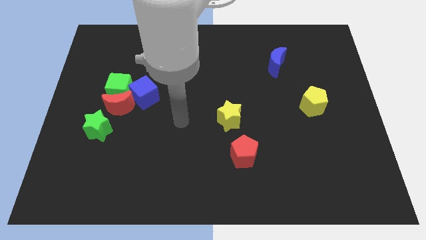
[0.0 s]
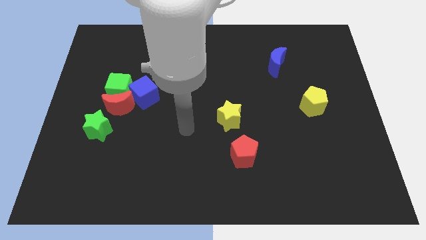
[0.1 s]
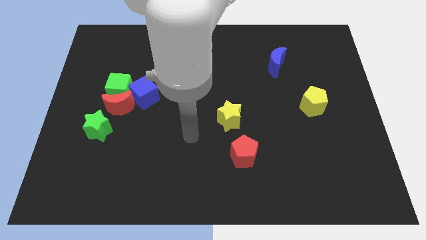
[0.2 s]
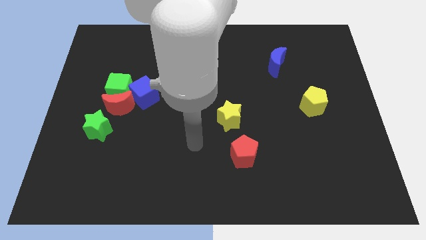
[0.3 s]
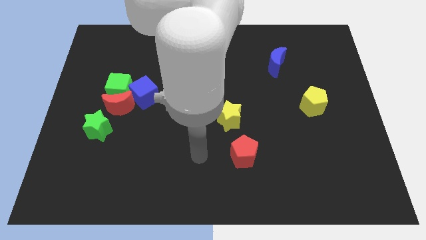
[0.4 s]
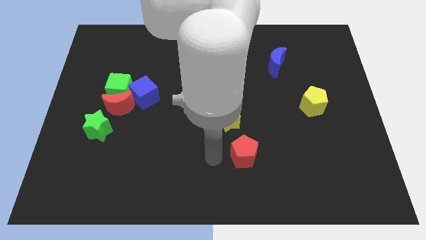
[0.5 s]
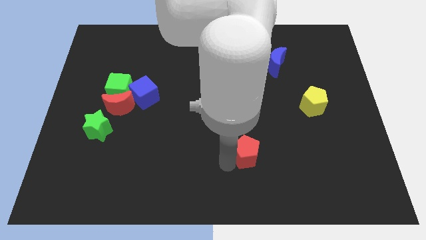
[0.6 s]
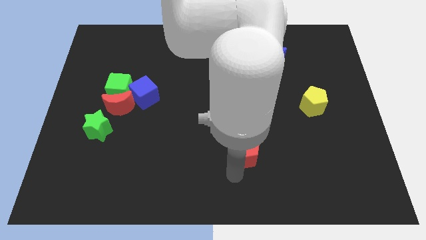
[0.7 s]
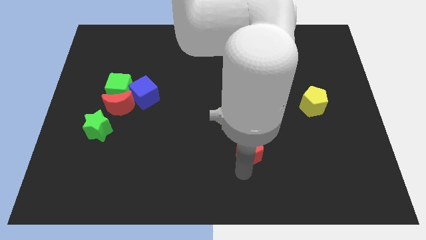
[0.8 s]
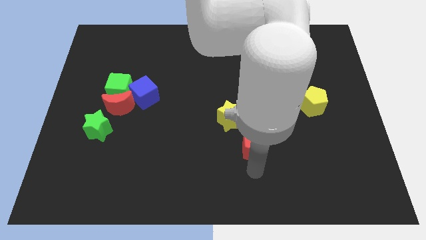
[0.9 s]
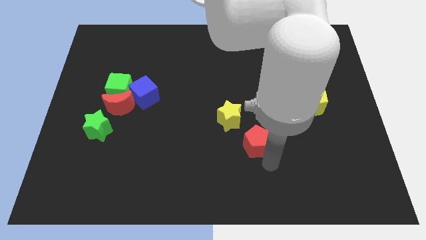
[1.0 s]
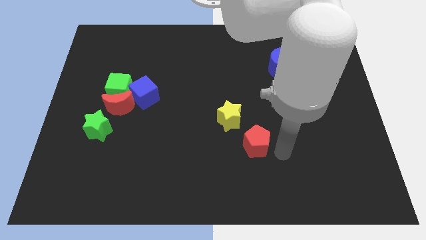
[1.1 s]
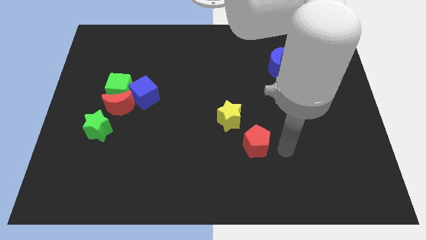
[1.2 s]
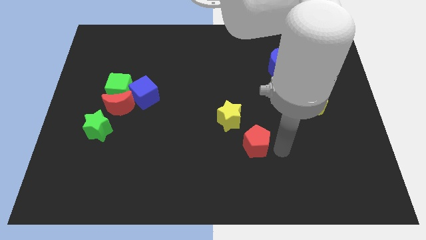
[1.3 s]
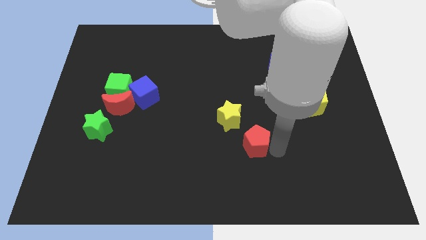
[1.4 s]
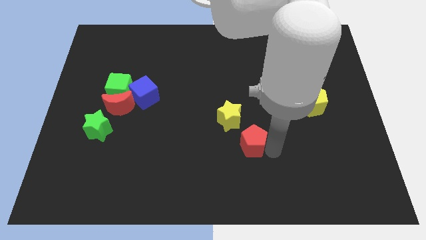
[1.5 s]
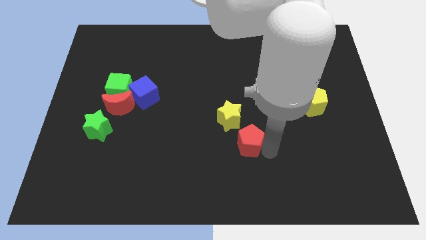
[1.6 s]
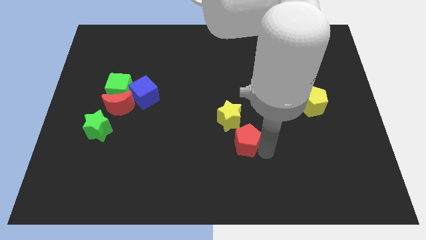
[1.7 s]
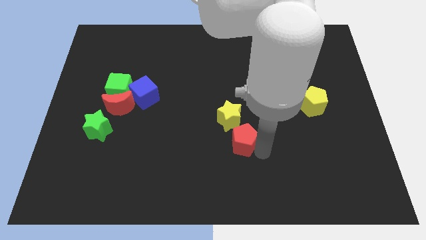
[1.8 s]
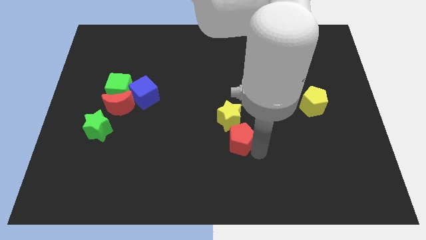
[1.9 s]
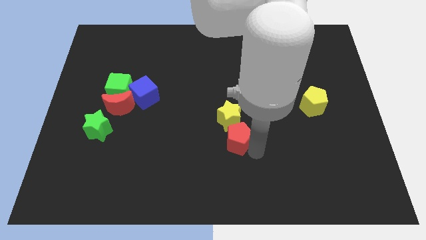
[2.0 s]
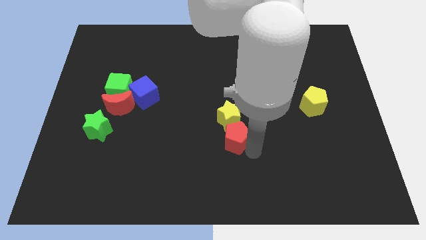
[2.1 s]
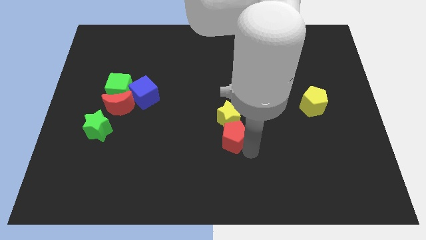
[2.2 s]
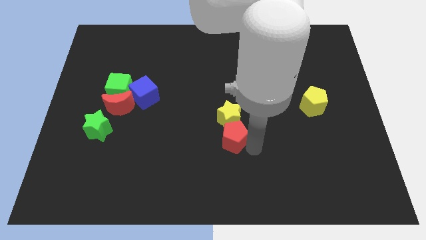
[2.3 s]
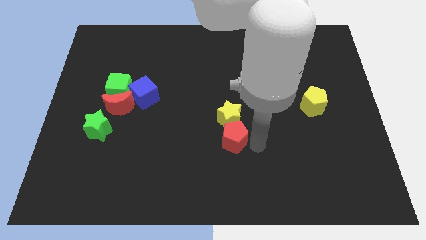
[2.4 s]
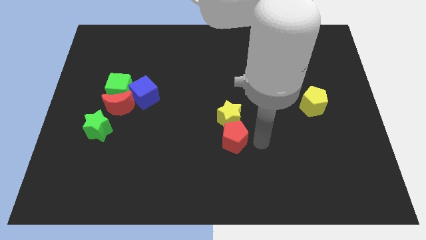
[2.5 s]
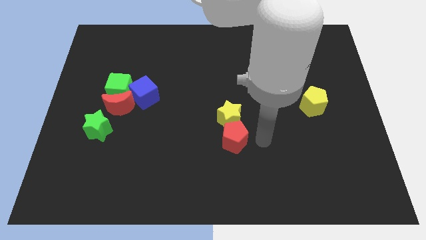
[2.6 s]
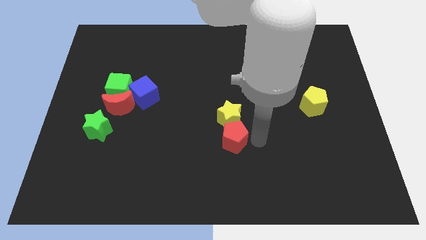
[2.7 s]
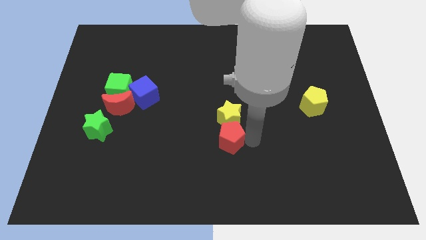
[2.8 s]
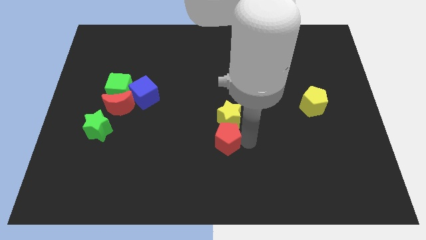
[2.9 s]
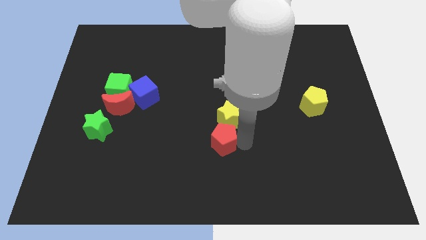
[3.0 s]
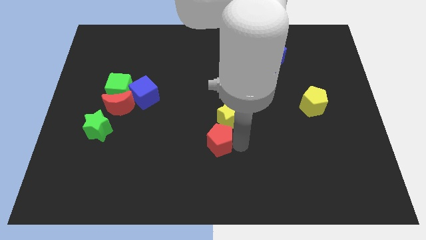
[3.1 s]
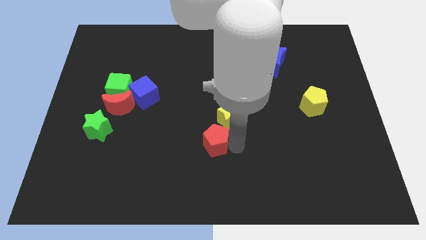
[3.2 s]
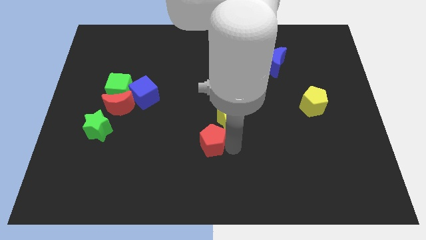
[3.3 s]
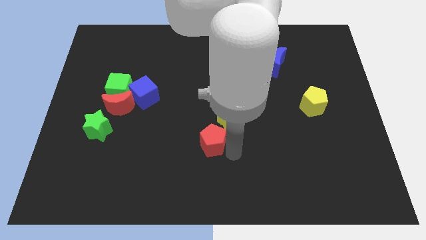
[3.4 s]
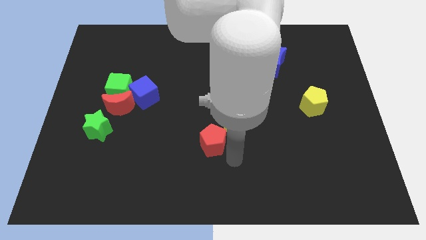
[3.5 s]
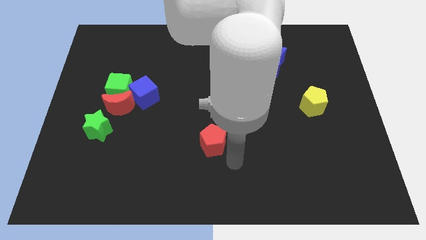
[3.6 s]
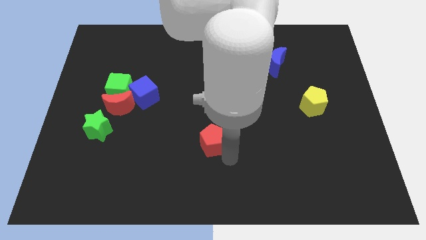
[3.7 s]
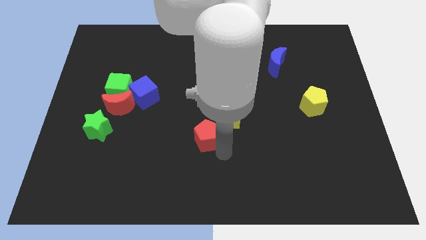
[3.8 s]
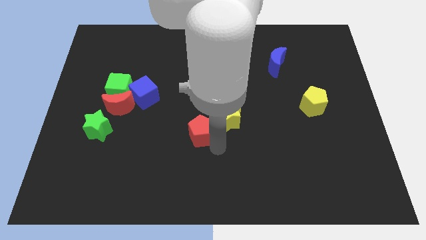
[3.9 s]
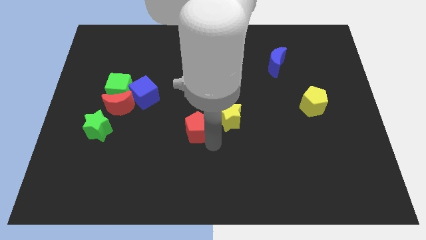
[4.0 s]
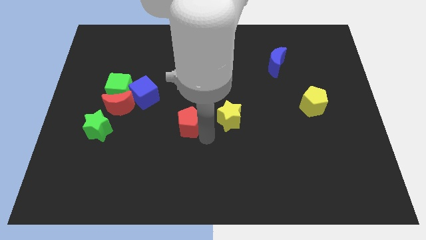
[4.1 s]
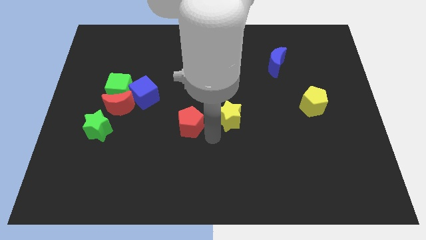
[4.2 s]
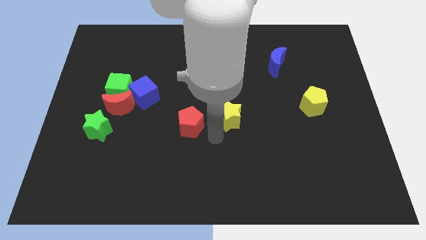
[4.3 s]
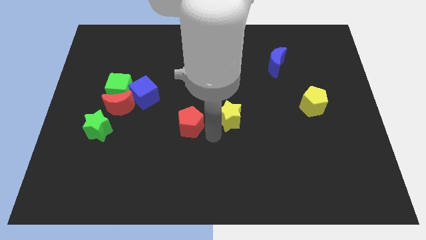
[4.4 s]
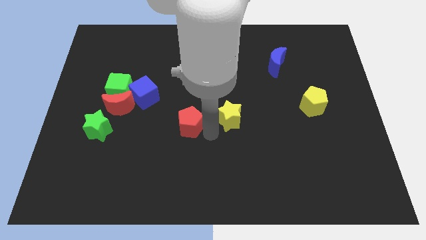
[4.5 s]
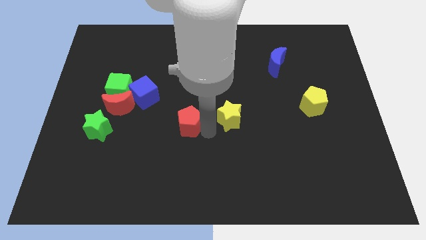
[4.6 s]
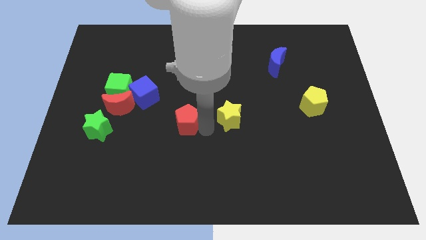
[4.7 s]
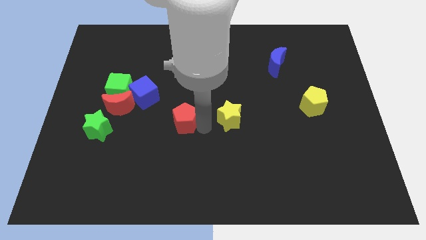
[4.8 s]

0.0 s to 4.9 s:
slide the red pentagon to the bottom right of the blue cube

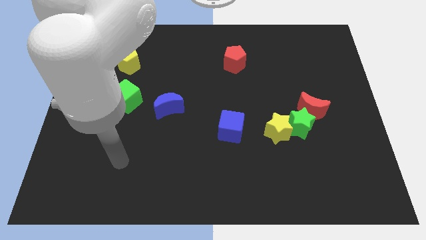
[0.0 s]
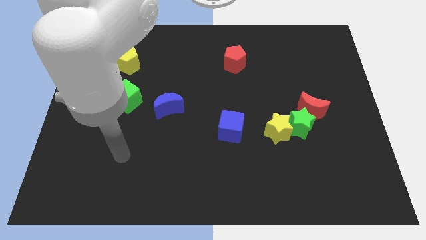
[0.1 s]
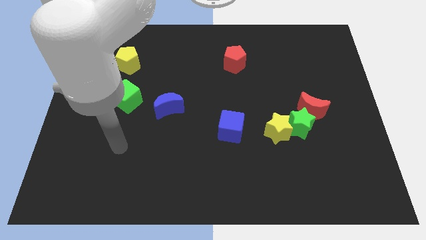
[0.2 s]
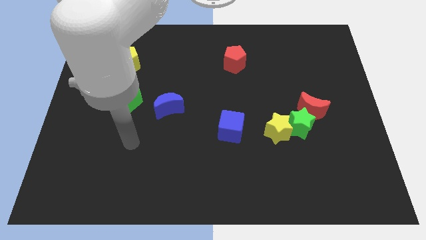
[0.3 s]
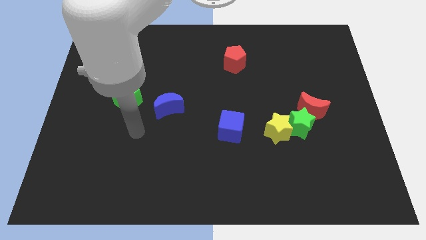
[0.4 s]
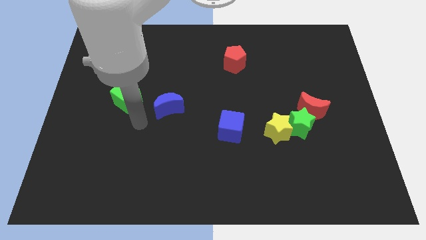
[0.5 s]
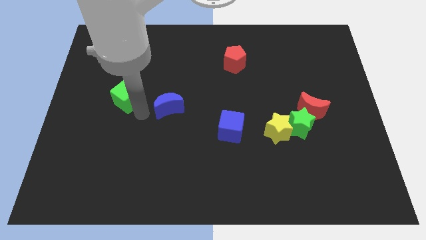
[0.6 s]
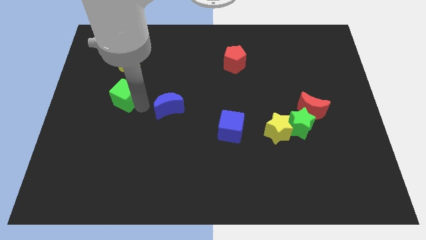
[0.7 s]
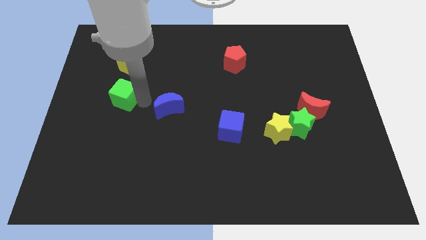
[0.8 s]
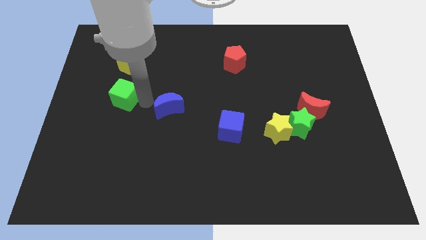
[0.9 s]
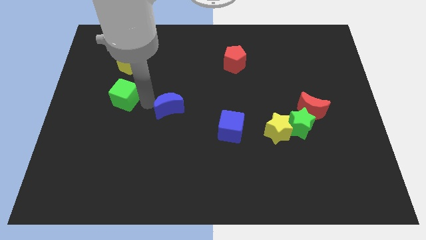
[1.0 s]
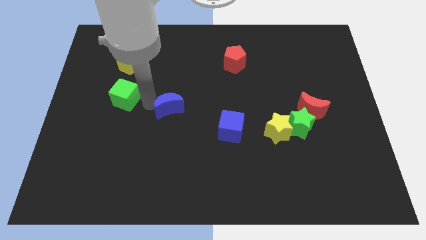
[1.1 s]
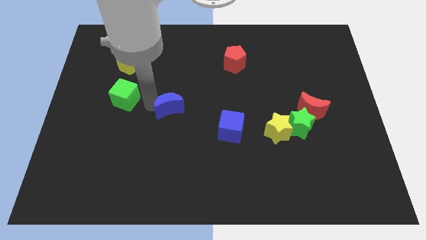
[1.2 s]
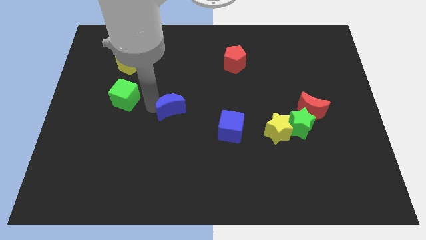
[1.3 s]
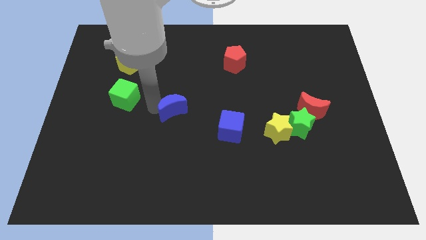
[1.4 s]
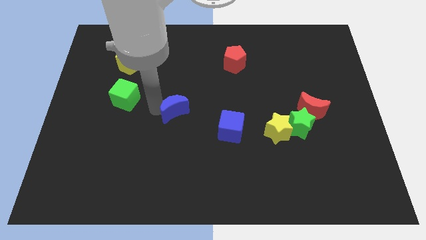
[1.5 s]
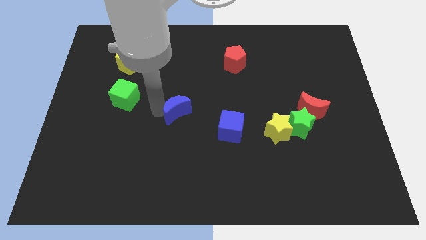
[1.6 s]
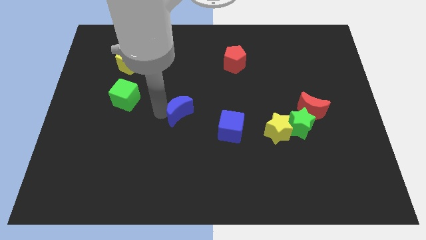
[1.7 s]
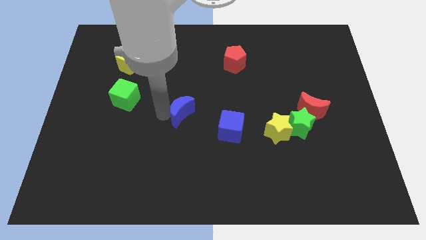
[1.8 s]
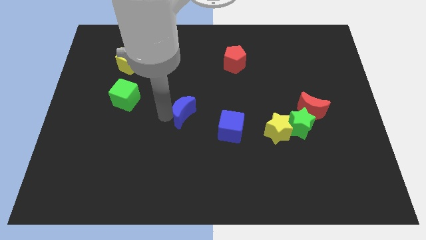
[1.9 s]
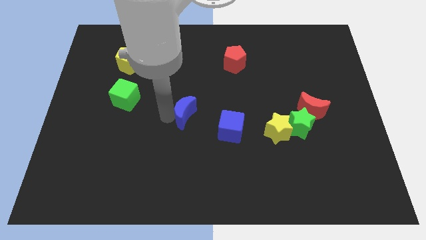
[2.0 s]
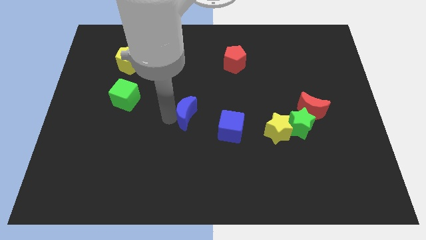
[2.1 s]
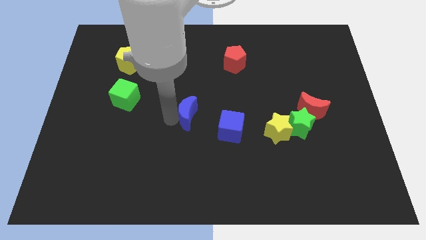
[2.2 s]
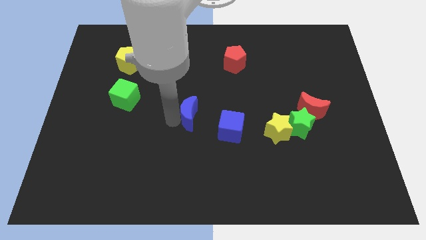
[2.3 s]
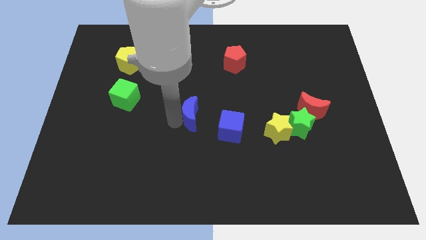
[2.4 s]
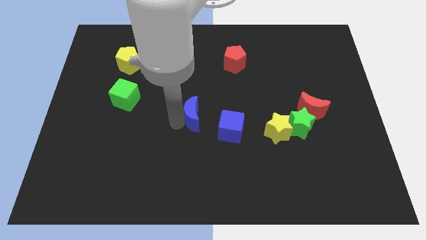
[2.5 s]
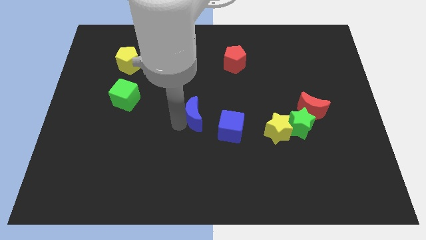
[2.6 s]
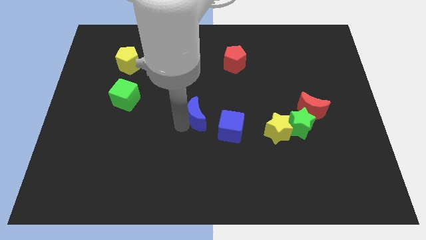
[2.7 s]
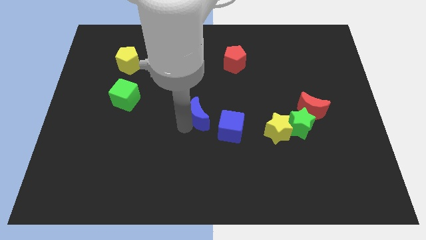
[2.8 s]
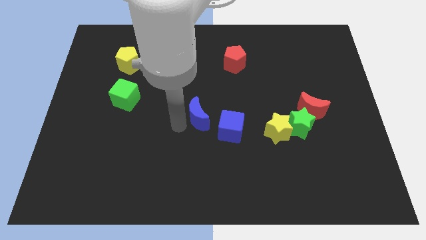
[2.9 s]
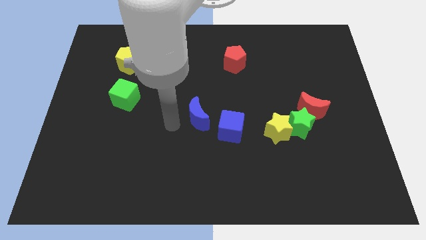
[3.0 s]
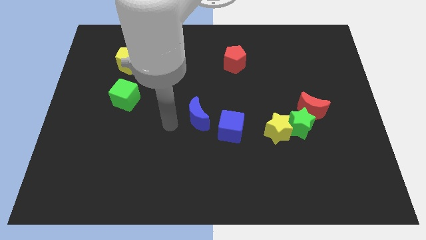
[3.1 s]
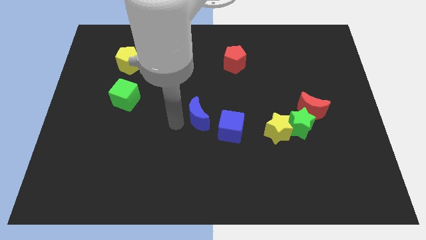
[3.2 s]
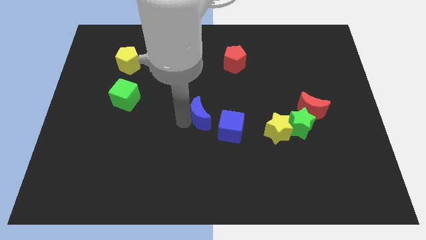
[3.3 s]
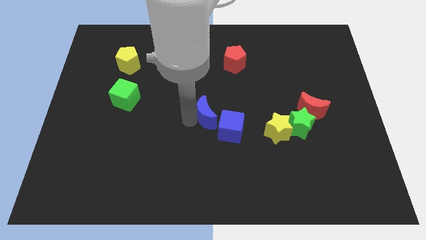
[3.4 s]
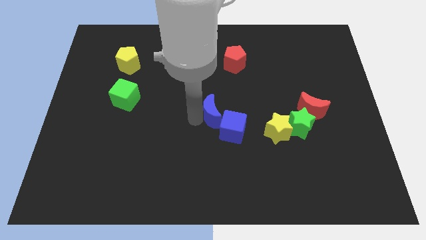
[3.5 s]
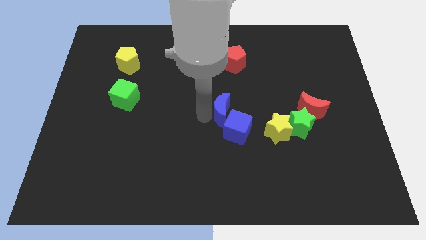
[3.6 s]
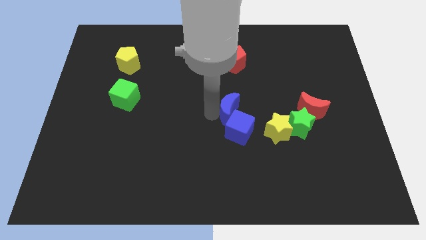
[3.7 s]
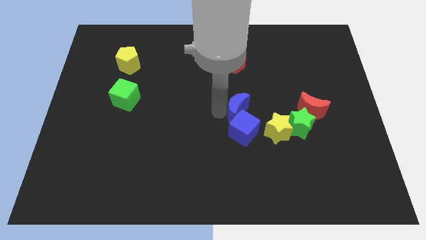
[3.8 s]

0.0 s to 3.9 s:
push the blue moon to the top left of the yellow star
